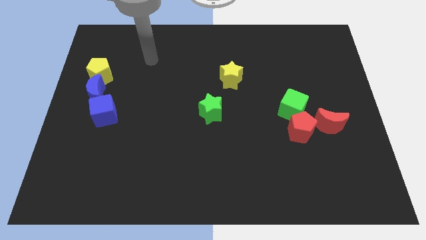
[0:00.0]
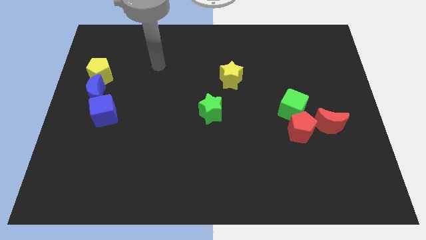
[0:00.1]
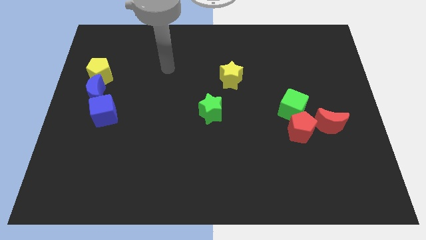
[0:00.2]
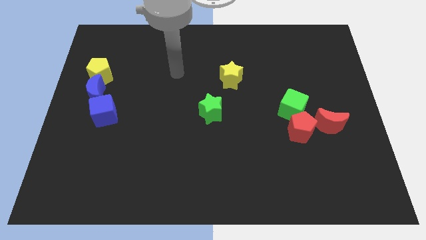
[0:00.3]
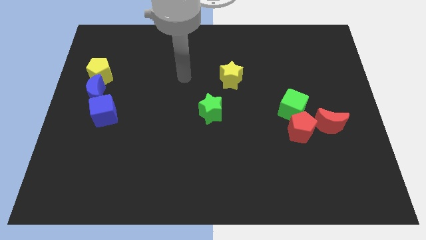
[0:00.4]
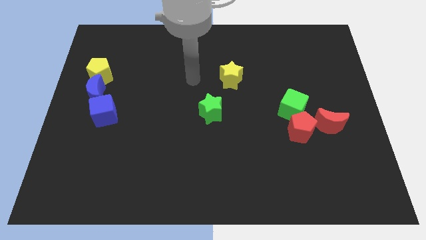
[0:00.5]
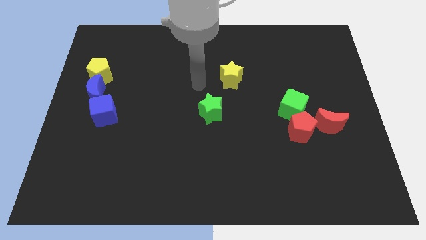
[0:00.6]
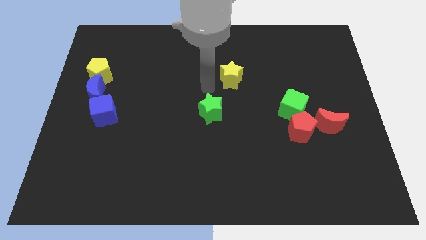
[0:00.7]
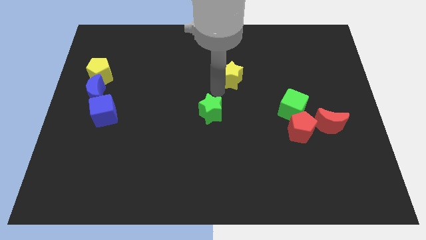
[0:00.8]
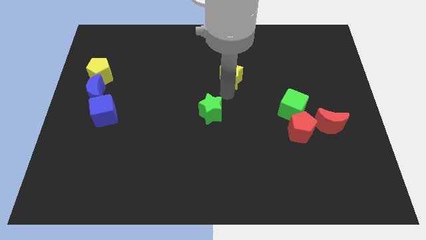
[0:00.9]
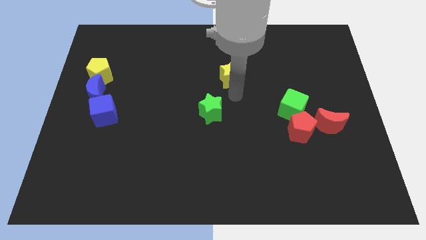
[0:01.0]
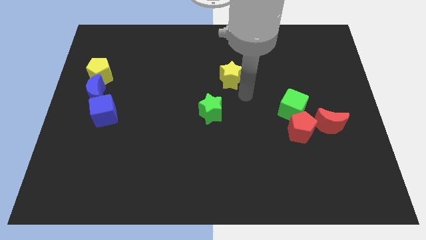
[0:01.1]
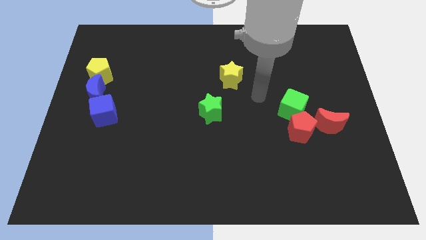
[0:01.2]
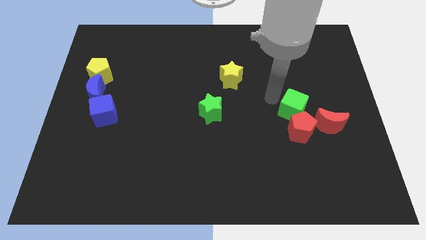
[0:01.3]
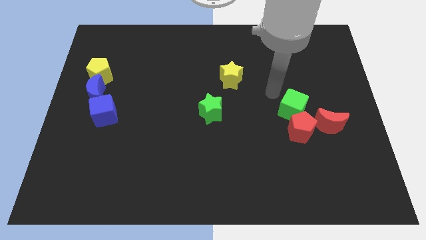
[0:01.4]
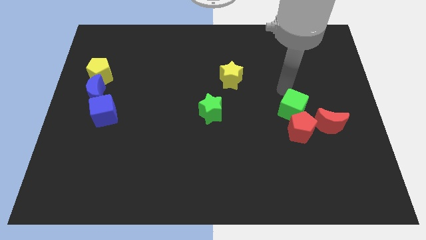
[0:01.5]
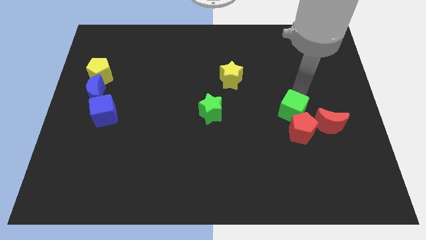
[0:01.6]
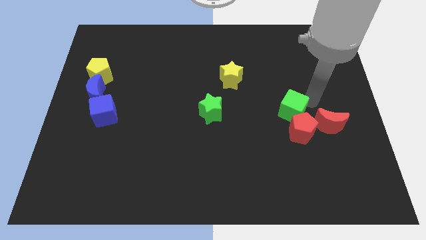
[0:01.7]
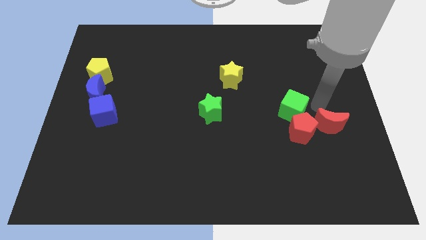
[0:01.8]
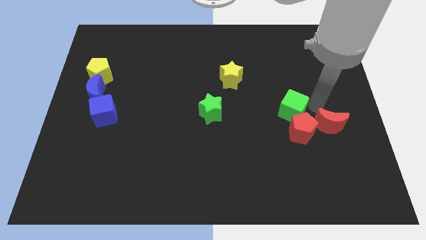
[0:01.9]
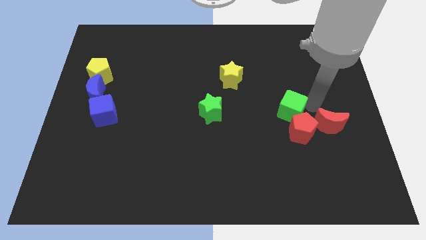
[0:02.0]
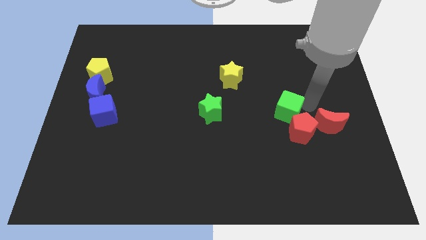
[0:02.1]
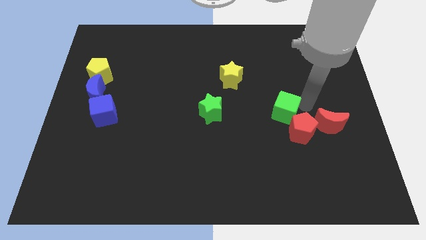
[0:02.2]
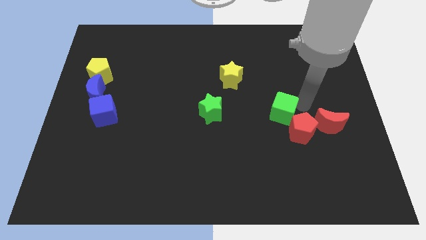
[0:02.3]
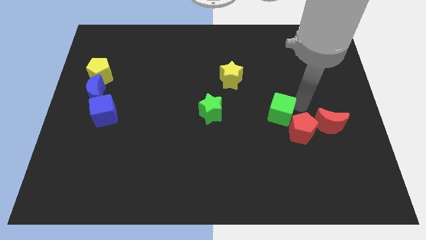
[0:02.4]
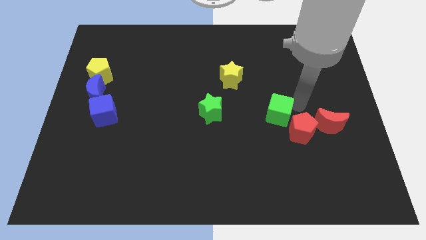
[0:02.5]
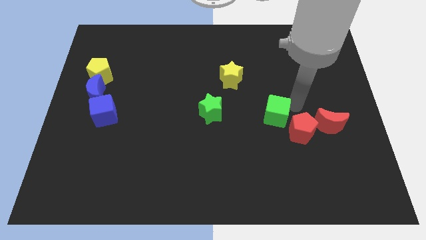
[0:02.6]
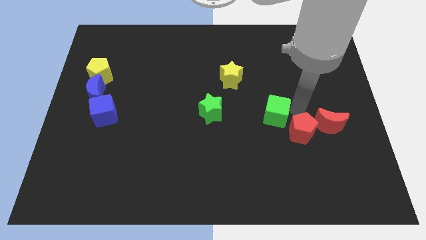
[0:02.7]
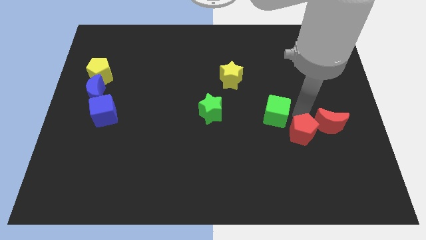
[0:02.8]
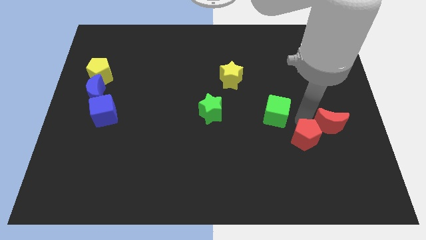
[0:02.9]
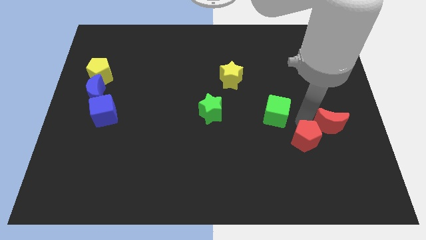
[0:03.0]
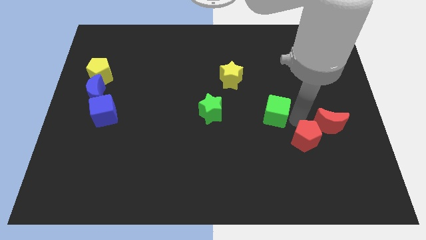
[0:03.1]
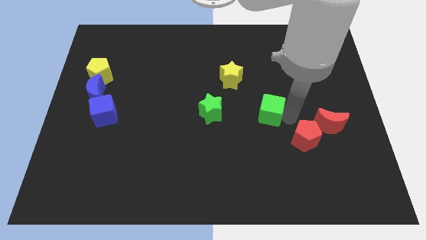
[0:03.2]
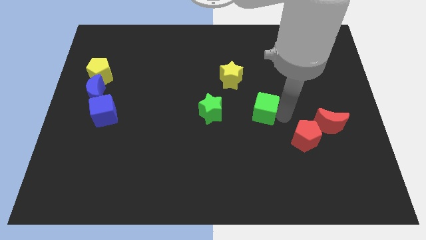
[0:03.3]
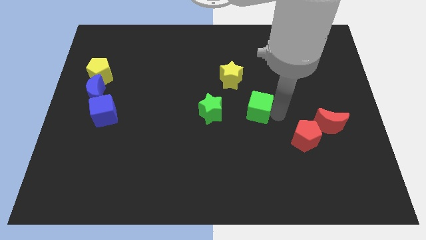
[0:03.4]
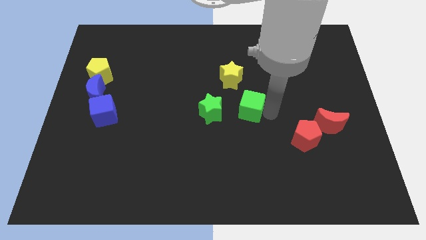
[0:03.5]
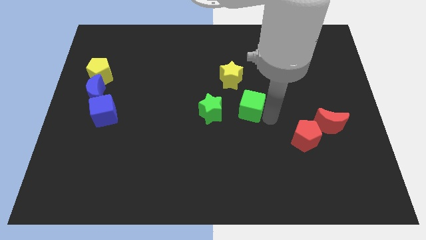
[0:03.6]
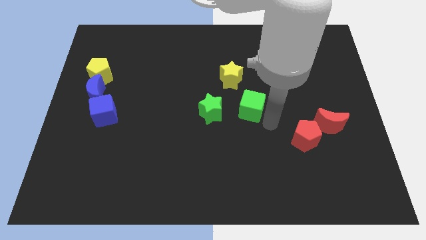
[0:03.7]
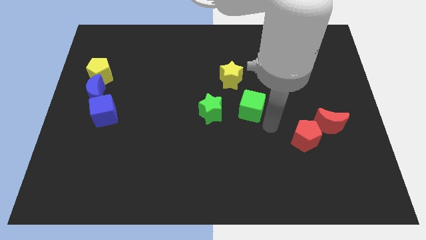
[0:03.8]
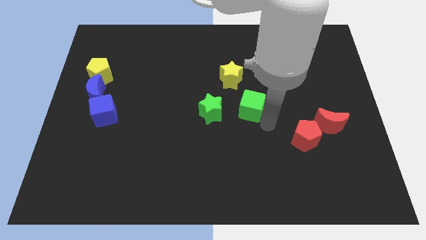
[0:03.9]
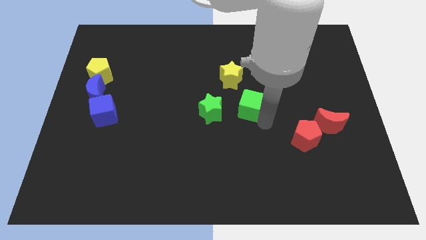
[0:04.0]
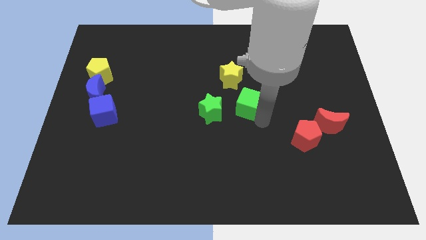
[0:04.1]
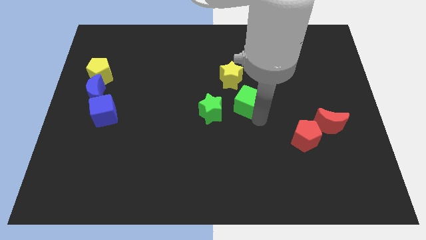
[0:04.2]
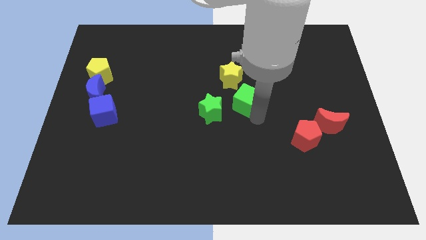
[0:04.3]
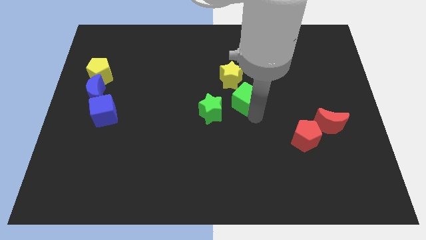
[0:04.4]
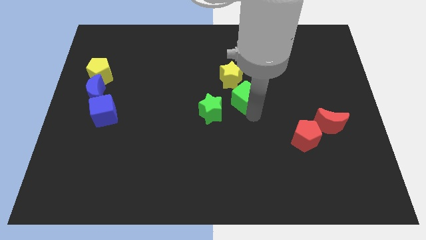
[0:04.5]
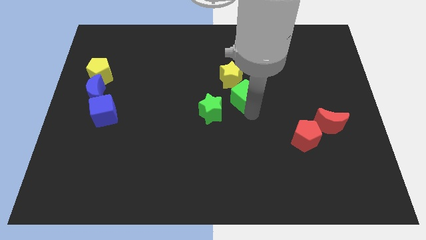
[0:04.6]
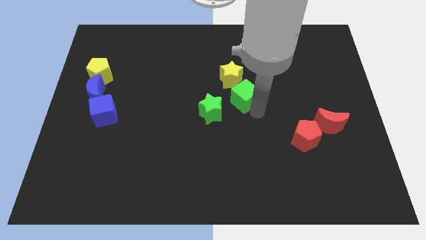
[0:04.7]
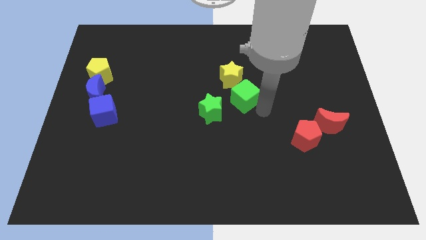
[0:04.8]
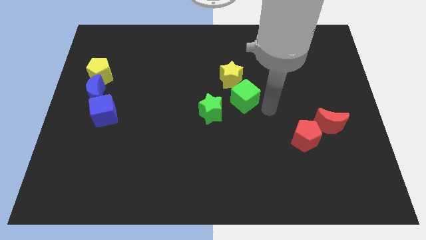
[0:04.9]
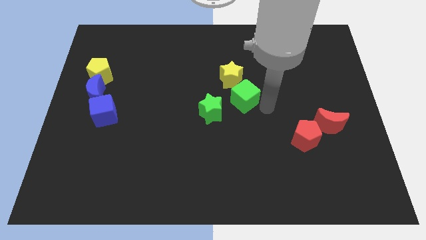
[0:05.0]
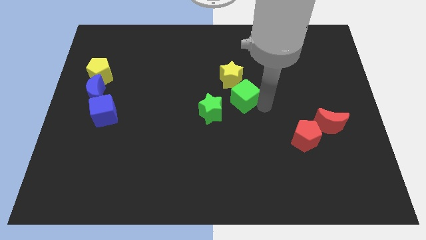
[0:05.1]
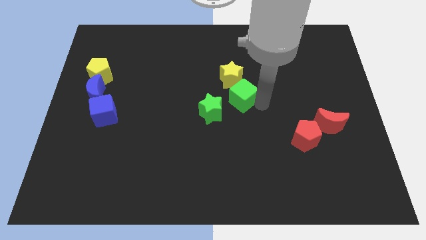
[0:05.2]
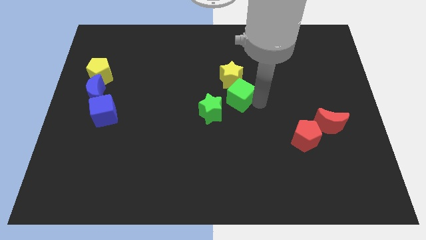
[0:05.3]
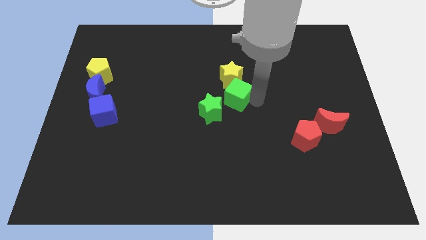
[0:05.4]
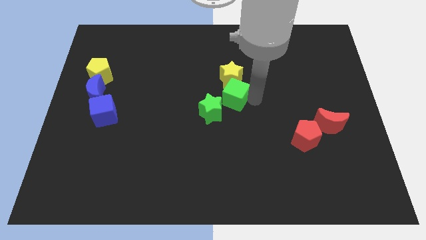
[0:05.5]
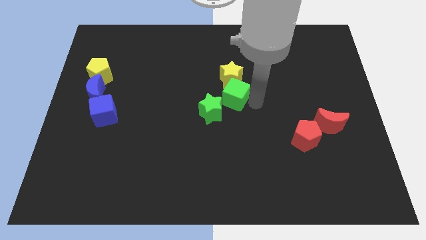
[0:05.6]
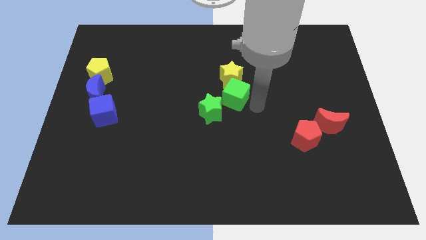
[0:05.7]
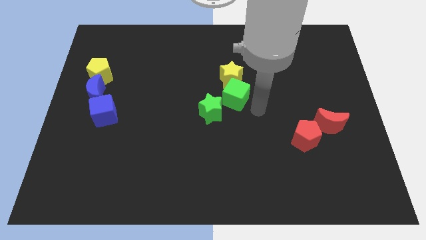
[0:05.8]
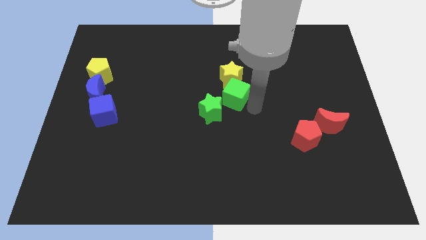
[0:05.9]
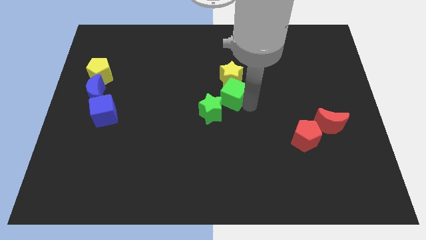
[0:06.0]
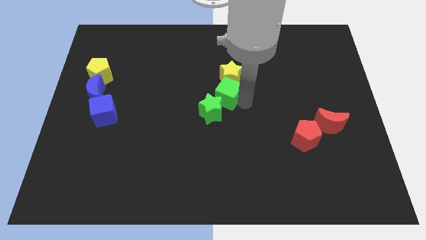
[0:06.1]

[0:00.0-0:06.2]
put the green cube to the top of the green star

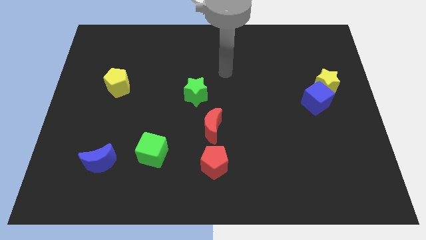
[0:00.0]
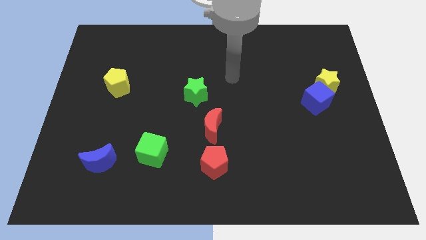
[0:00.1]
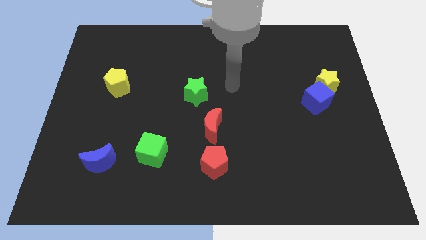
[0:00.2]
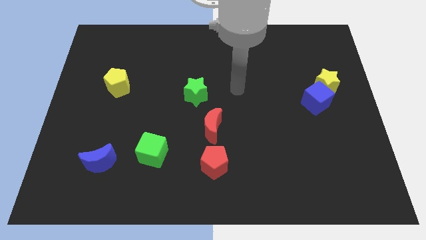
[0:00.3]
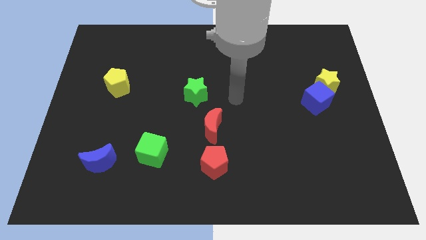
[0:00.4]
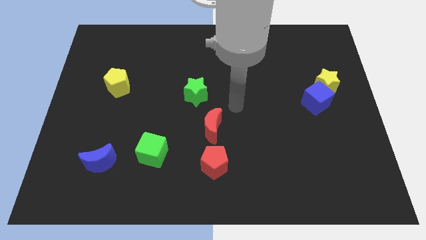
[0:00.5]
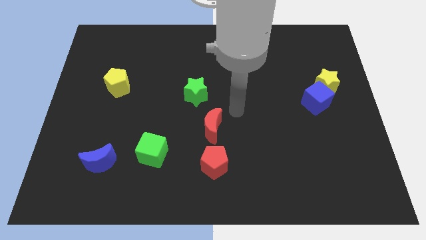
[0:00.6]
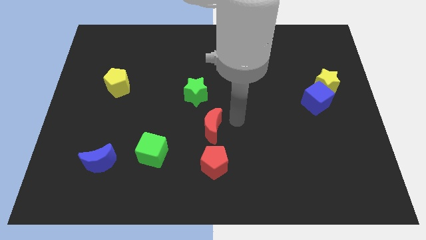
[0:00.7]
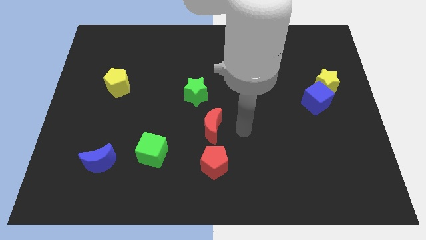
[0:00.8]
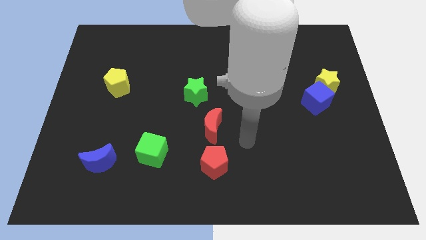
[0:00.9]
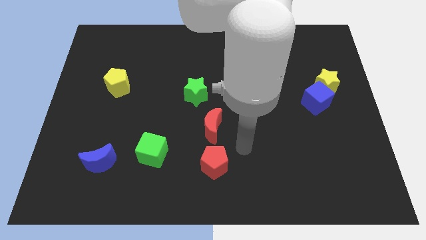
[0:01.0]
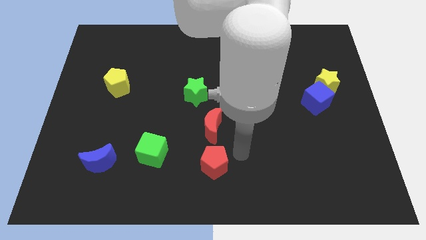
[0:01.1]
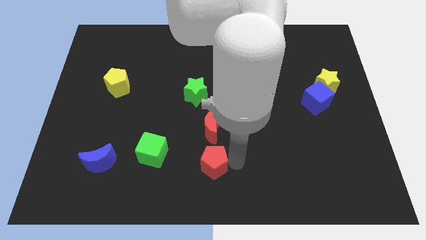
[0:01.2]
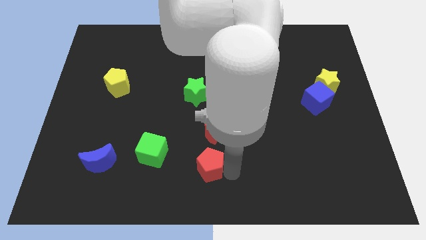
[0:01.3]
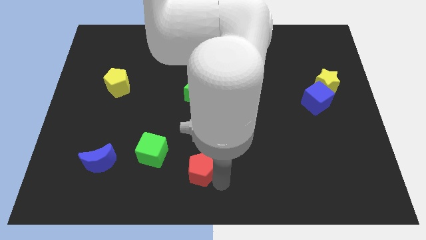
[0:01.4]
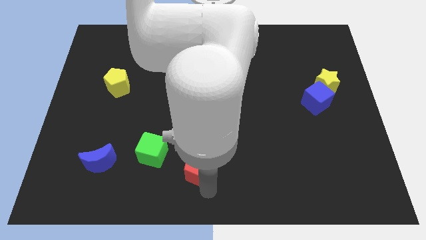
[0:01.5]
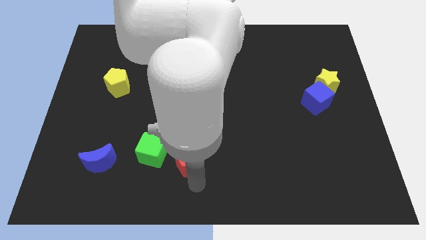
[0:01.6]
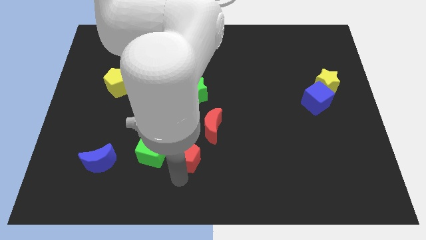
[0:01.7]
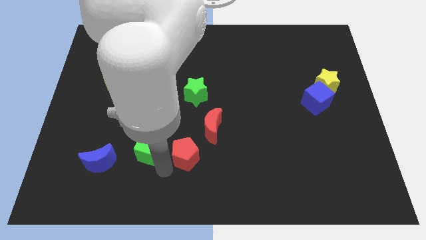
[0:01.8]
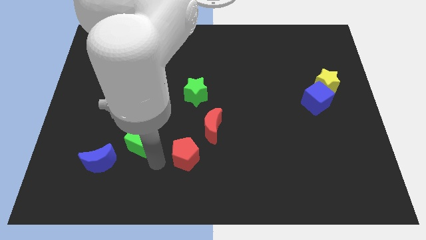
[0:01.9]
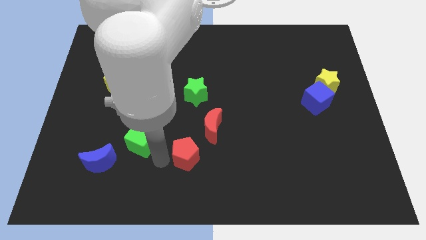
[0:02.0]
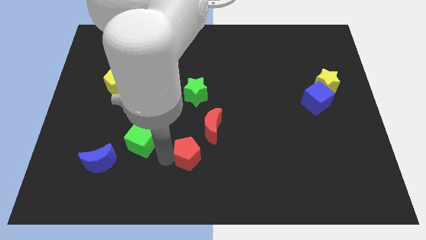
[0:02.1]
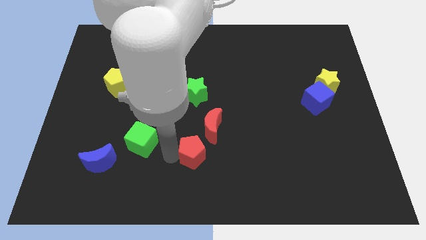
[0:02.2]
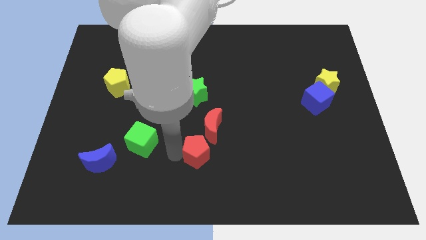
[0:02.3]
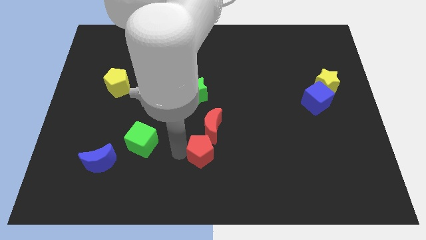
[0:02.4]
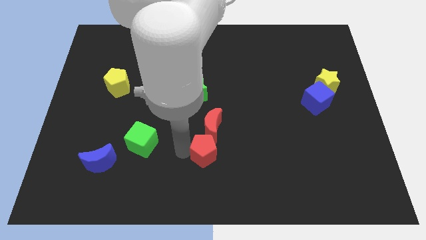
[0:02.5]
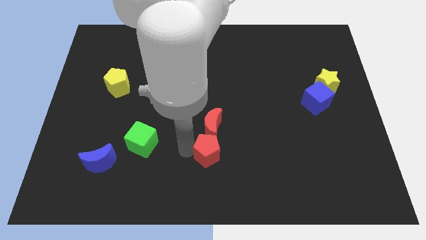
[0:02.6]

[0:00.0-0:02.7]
put the red pentagon to the bottom right of the red moon
